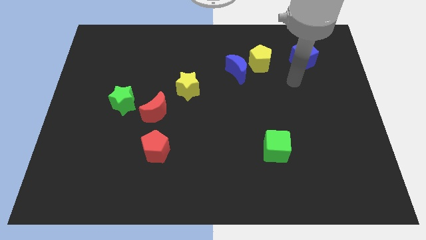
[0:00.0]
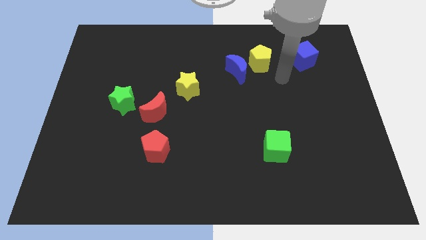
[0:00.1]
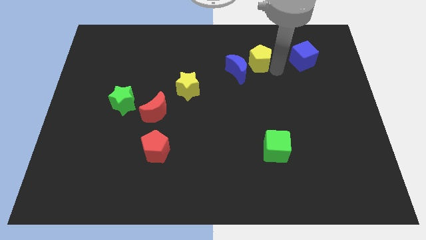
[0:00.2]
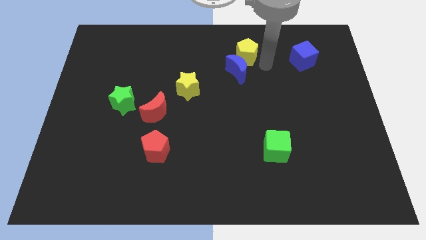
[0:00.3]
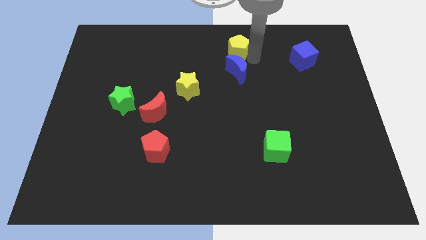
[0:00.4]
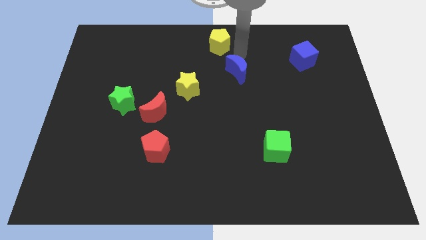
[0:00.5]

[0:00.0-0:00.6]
pull the blue moon apart from the yellow pentagon

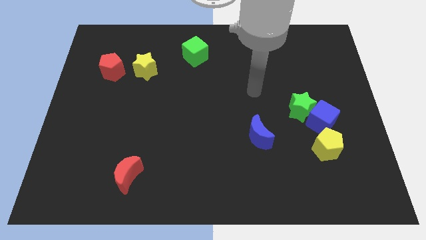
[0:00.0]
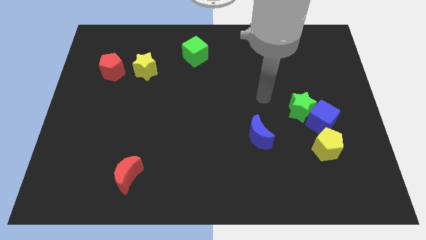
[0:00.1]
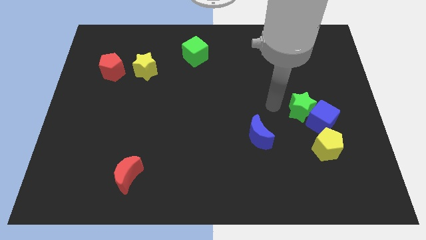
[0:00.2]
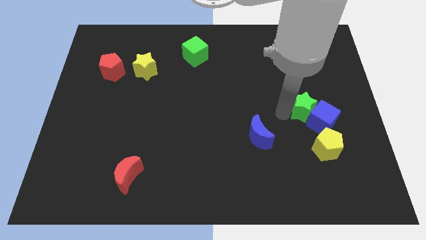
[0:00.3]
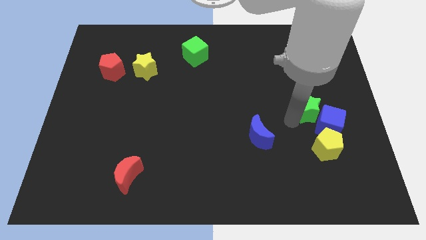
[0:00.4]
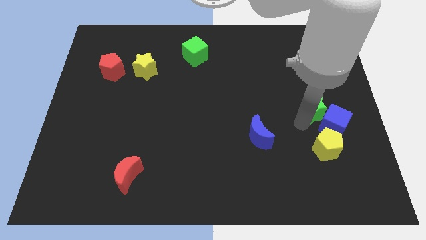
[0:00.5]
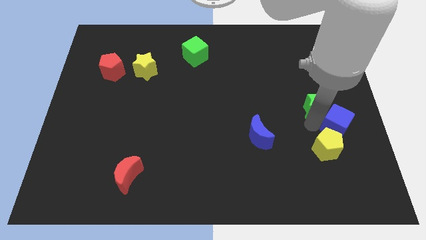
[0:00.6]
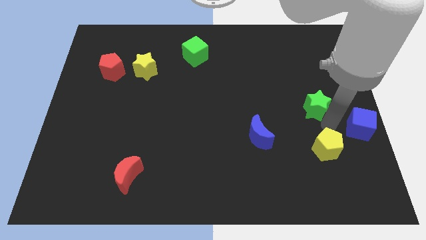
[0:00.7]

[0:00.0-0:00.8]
separate the green star from the blue cube

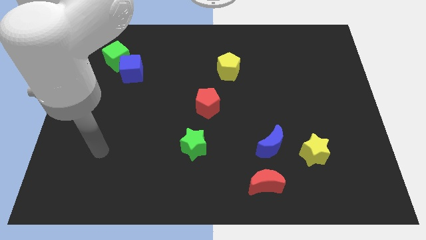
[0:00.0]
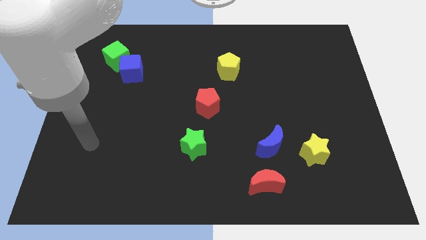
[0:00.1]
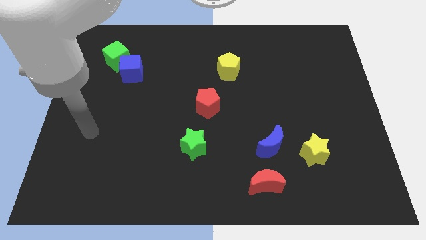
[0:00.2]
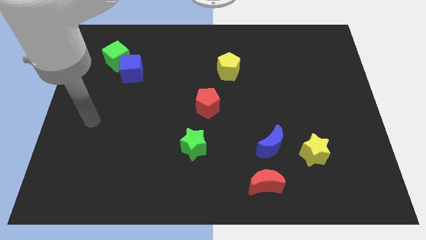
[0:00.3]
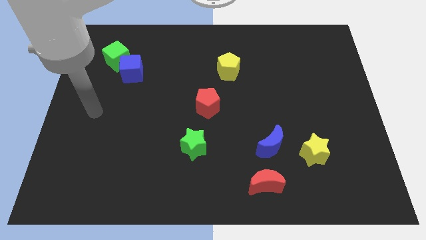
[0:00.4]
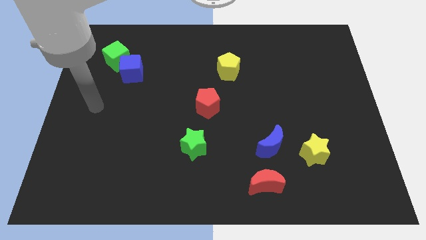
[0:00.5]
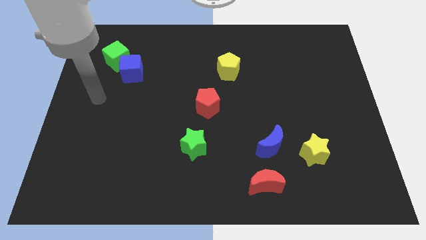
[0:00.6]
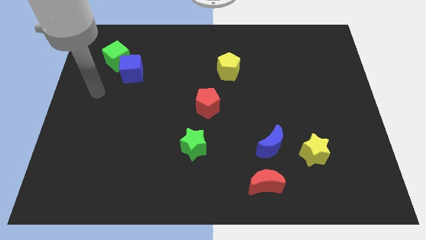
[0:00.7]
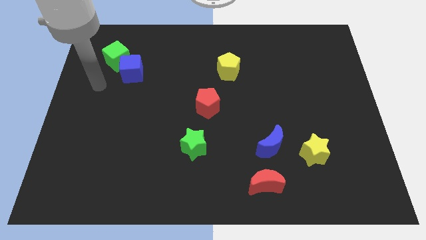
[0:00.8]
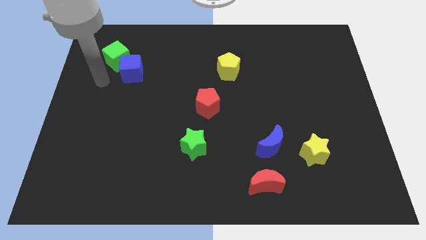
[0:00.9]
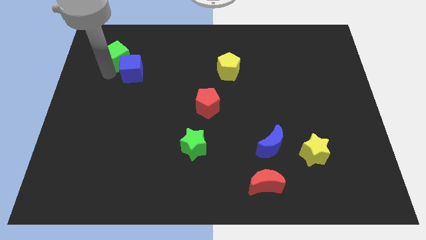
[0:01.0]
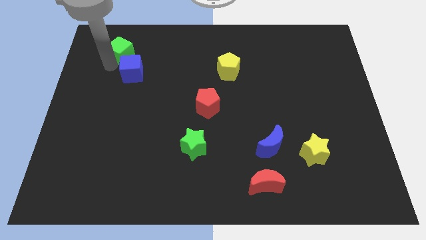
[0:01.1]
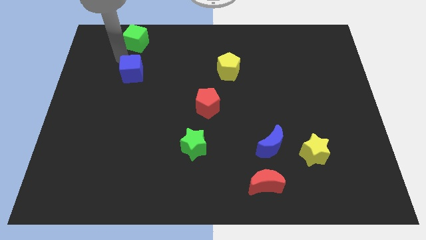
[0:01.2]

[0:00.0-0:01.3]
separate the blue cube from the green cube

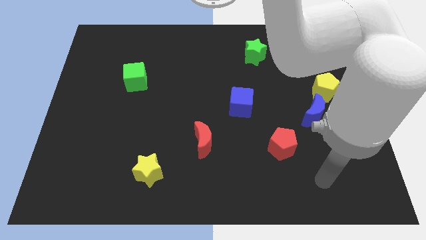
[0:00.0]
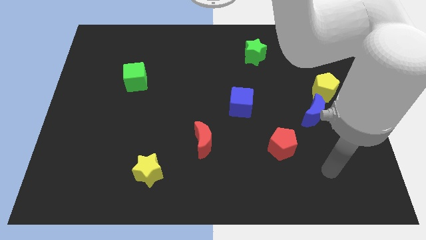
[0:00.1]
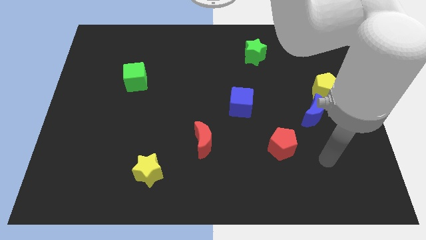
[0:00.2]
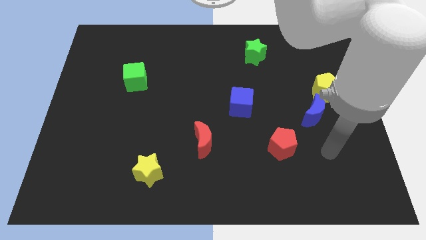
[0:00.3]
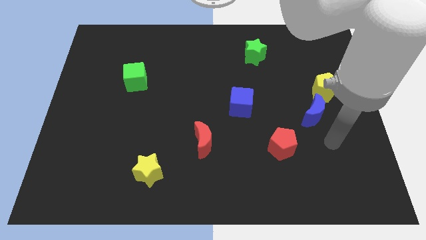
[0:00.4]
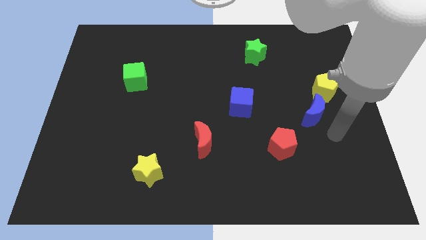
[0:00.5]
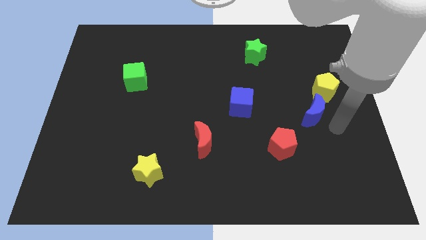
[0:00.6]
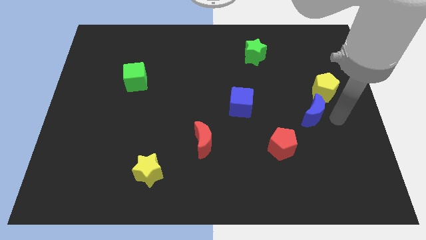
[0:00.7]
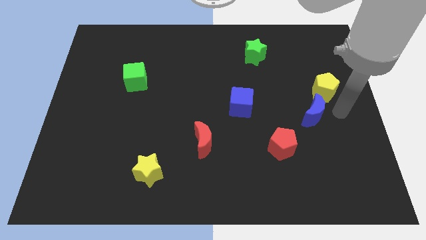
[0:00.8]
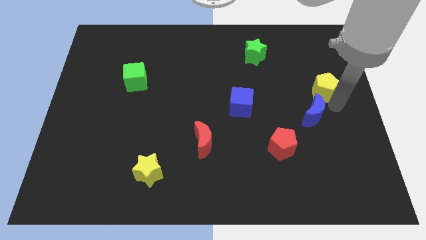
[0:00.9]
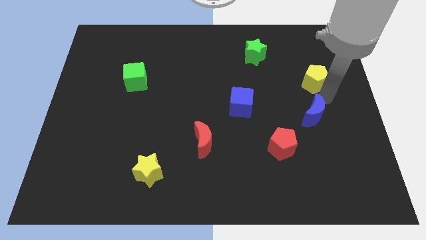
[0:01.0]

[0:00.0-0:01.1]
separate the blue moon from the yellow pentagon

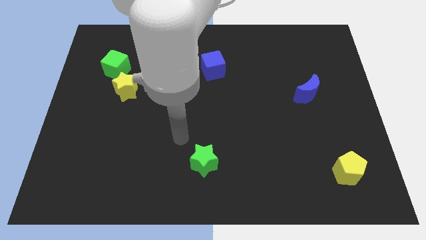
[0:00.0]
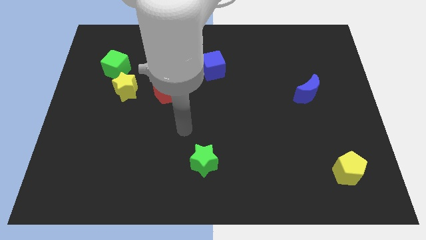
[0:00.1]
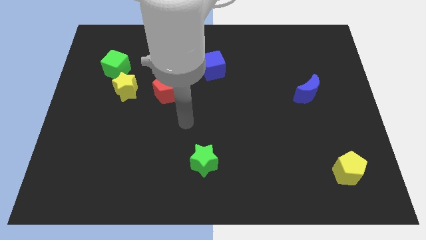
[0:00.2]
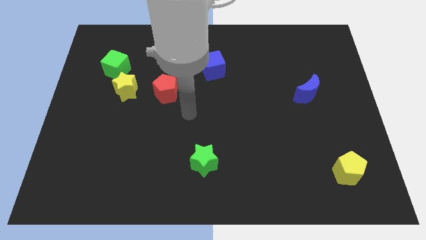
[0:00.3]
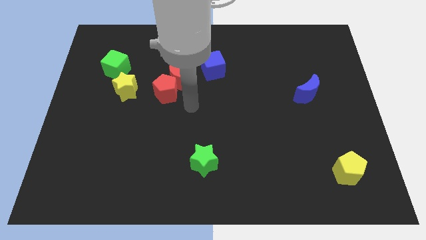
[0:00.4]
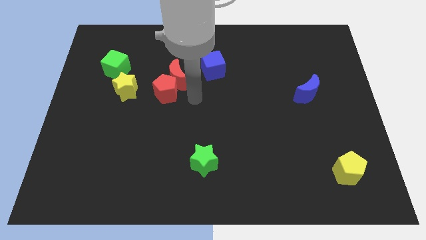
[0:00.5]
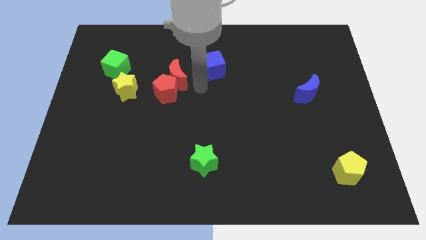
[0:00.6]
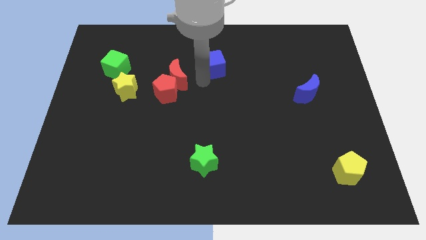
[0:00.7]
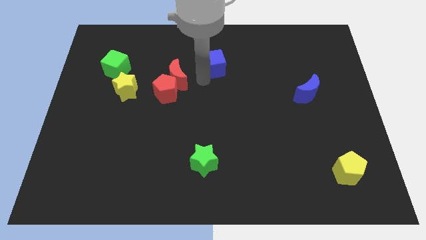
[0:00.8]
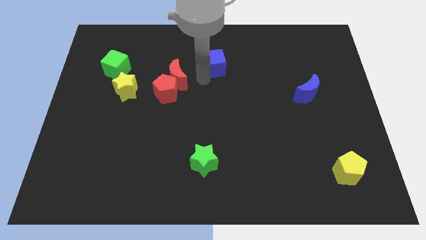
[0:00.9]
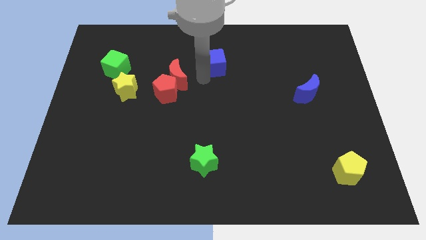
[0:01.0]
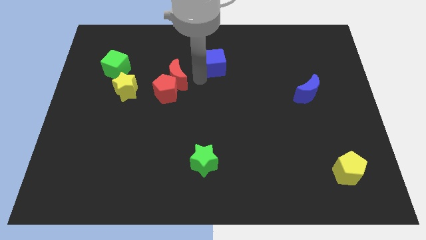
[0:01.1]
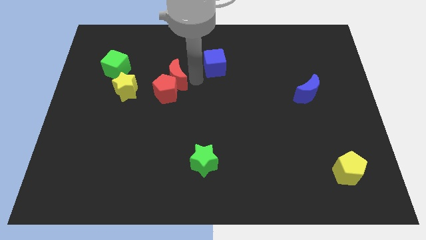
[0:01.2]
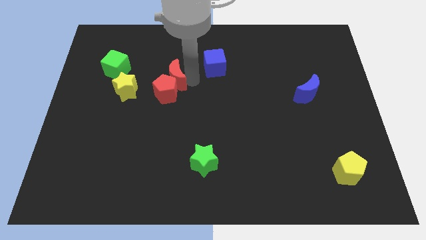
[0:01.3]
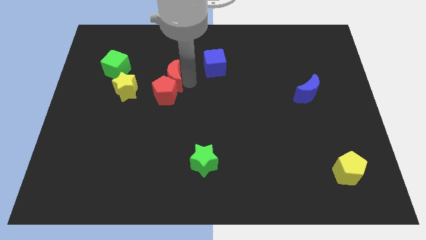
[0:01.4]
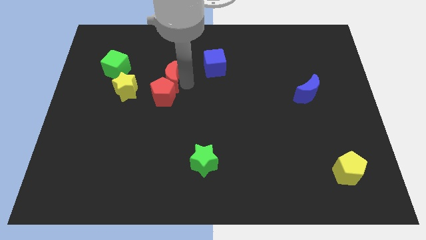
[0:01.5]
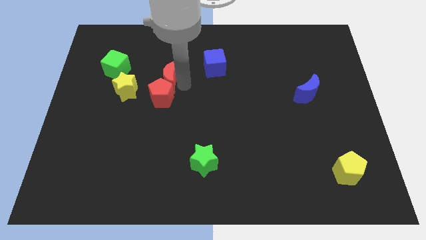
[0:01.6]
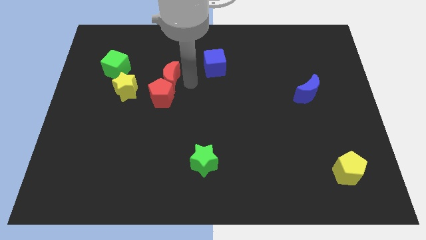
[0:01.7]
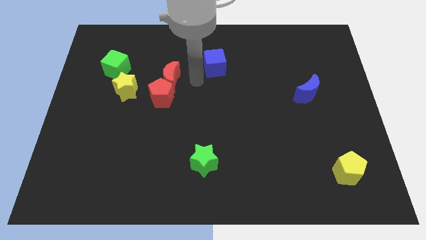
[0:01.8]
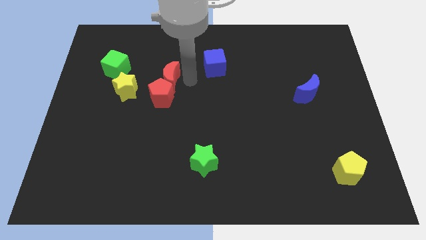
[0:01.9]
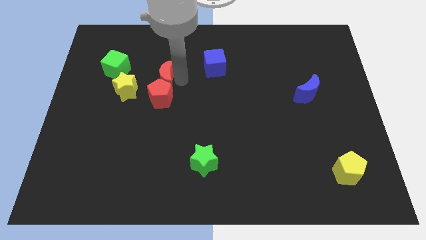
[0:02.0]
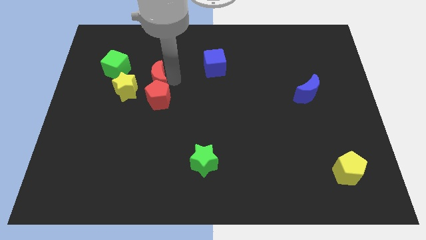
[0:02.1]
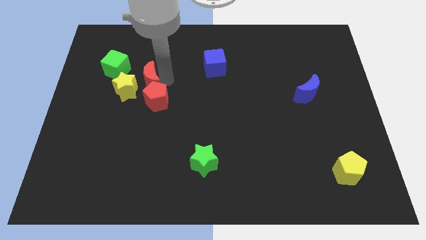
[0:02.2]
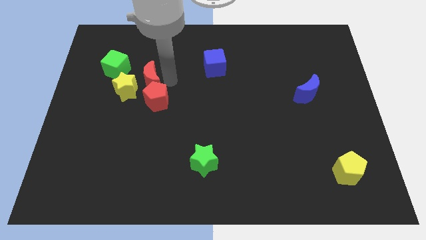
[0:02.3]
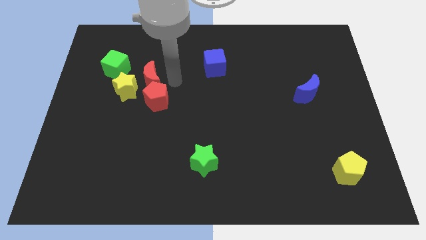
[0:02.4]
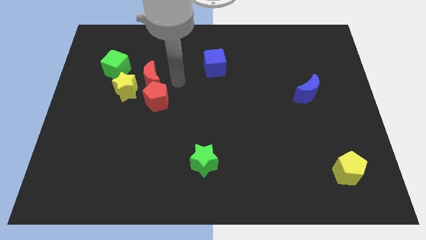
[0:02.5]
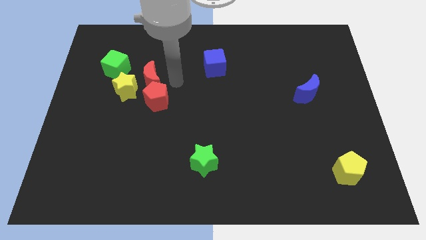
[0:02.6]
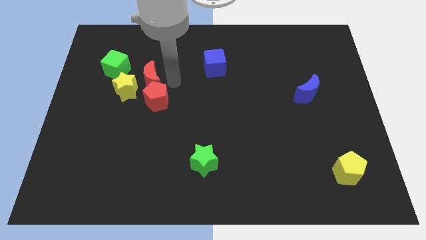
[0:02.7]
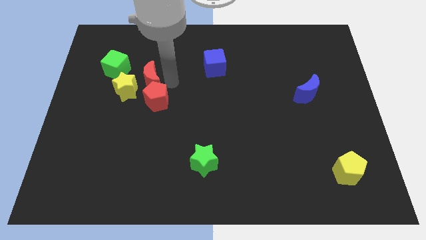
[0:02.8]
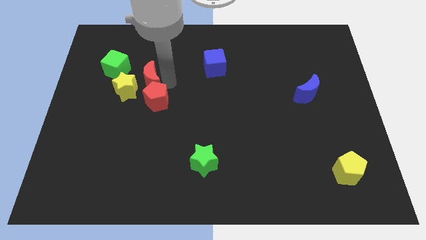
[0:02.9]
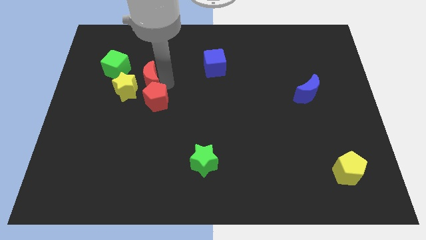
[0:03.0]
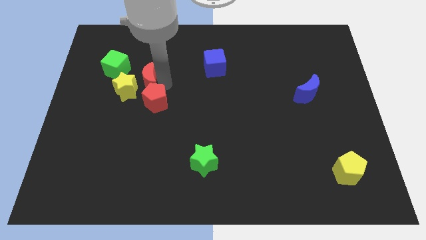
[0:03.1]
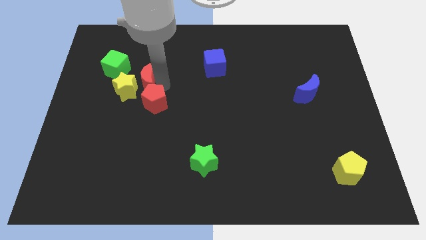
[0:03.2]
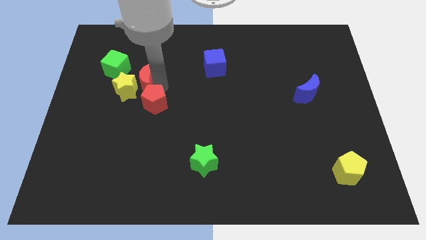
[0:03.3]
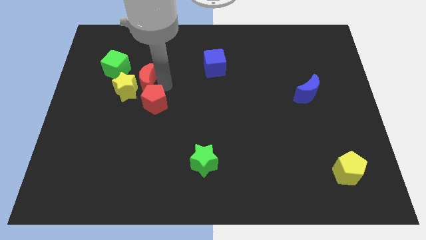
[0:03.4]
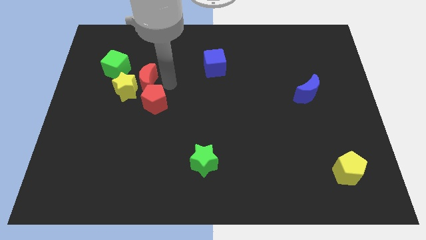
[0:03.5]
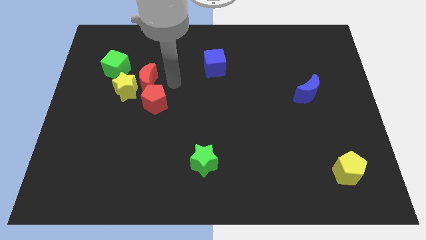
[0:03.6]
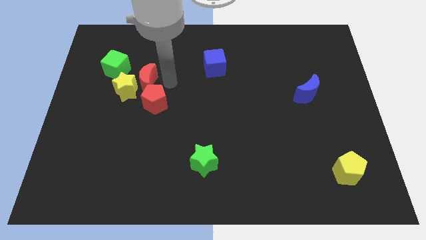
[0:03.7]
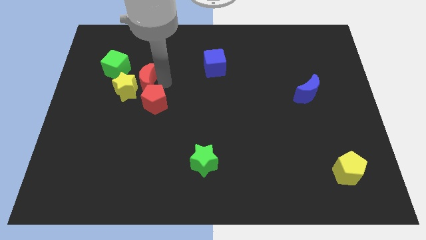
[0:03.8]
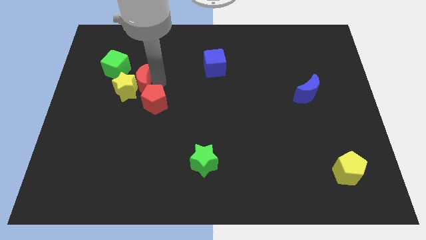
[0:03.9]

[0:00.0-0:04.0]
move the red moon away from the red pentagon and blue cube

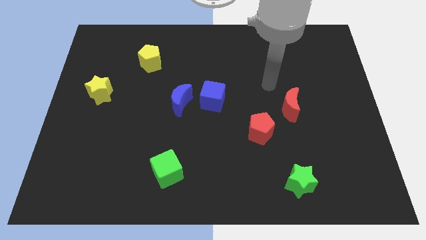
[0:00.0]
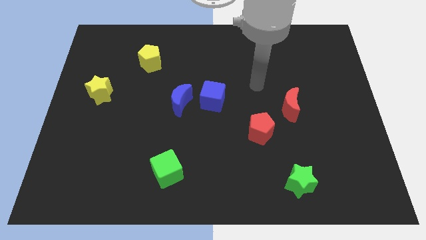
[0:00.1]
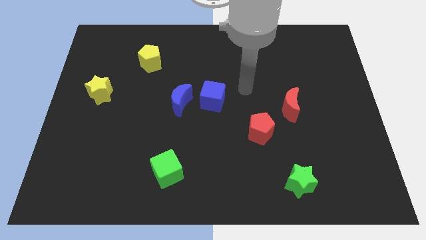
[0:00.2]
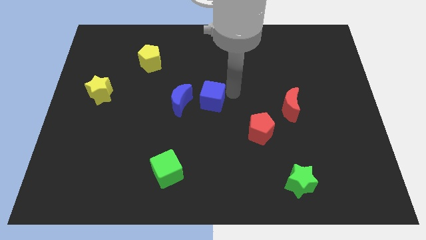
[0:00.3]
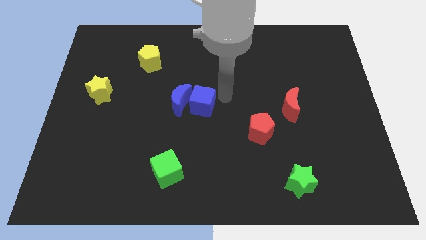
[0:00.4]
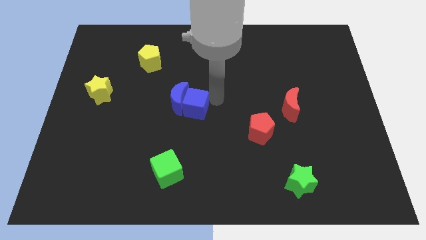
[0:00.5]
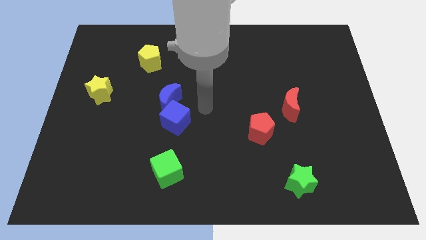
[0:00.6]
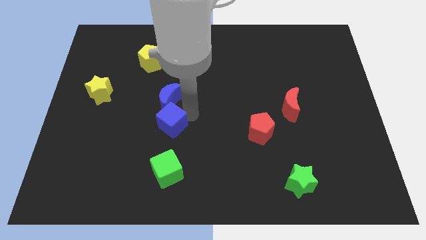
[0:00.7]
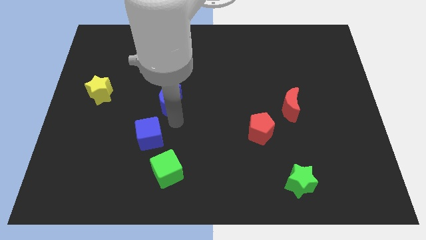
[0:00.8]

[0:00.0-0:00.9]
move the blue moon away from the blue cube

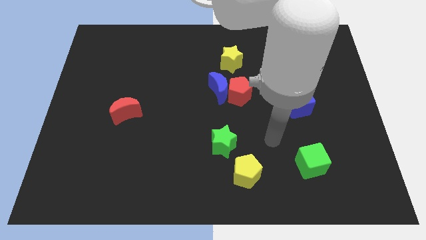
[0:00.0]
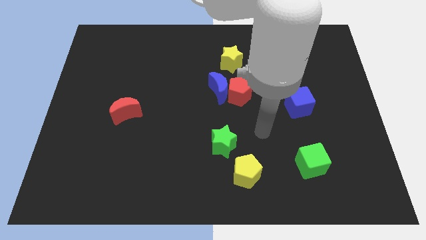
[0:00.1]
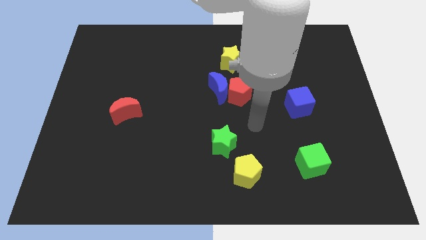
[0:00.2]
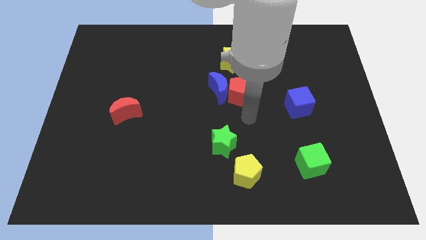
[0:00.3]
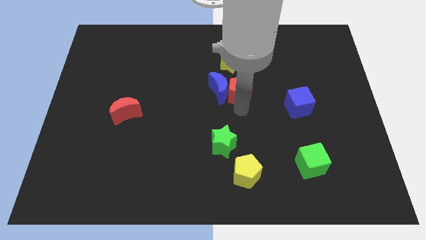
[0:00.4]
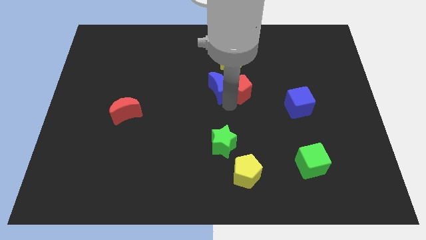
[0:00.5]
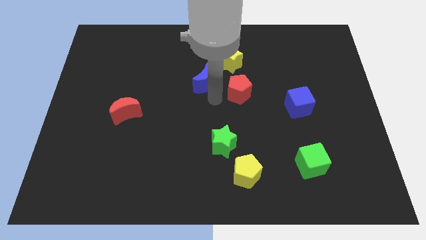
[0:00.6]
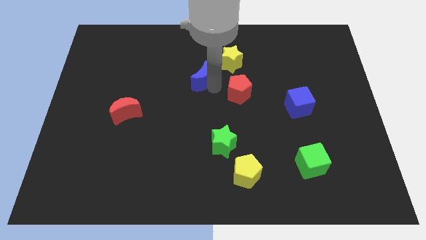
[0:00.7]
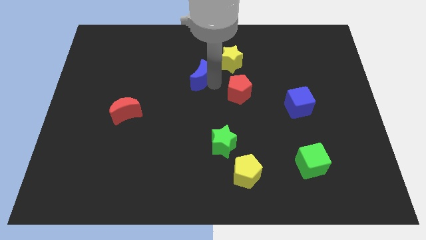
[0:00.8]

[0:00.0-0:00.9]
pull the red pentagon apart from the blue moon
